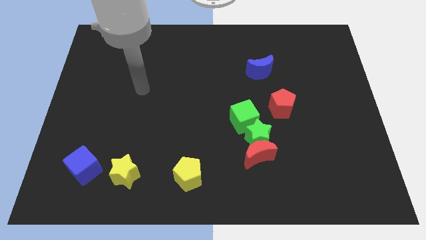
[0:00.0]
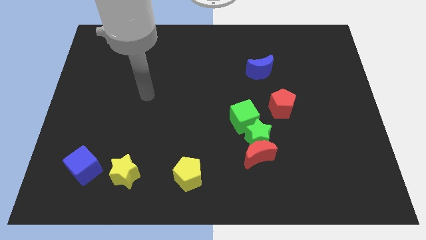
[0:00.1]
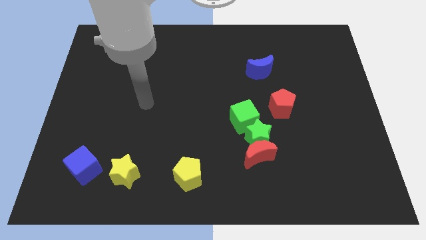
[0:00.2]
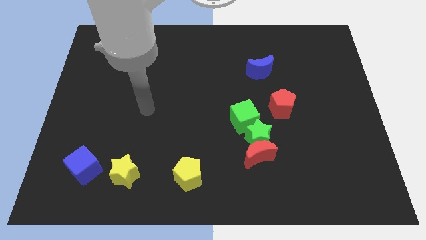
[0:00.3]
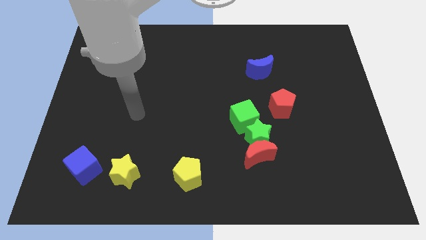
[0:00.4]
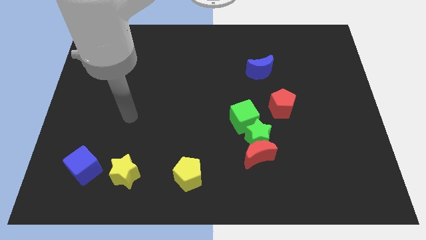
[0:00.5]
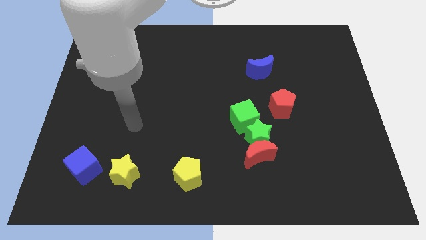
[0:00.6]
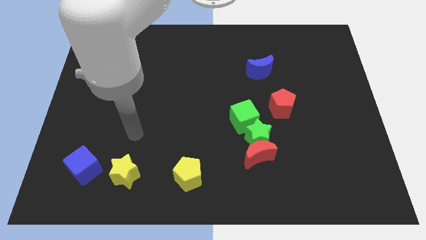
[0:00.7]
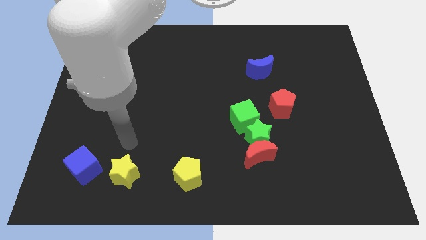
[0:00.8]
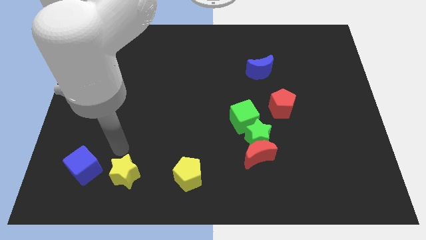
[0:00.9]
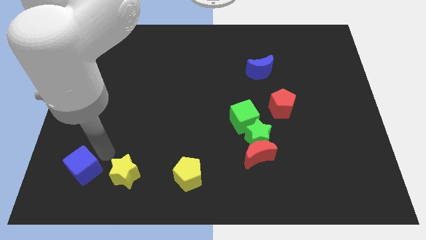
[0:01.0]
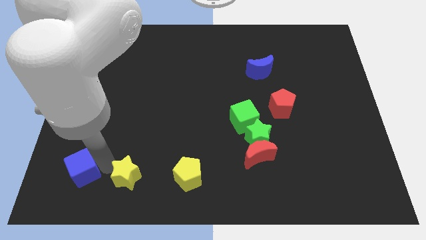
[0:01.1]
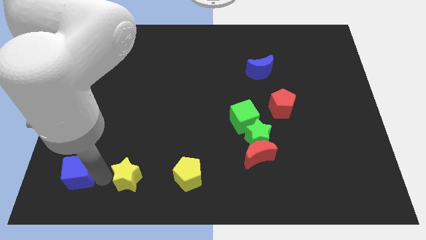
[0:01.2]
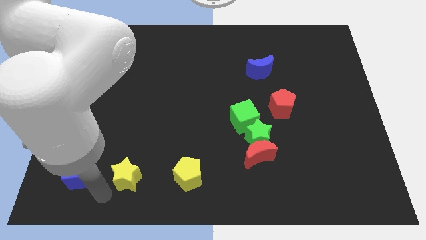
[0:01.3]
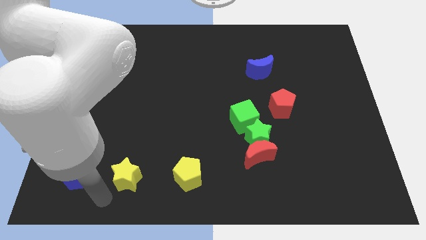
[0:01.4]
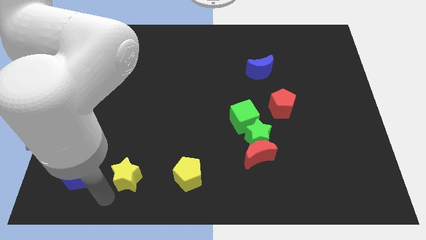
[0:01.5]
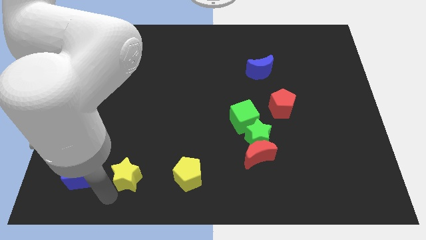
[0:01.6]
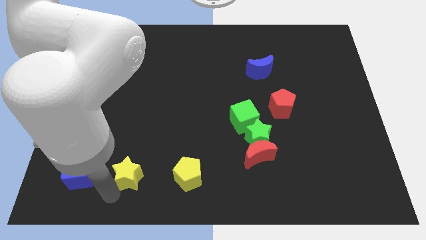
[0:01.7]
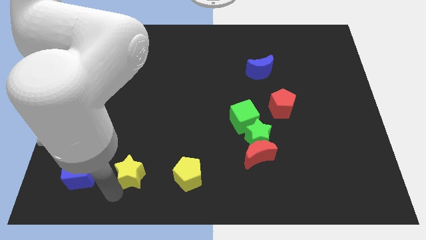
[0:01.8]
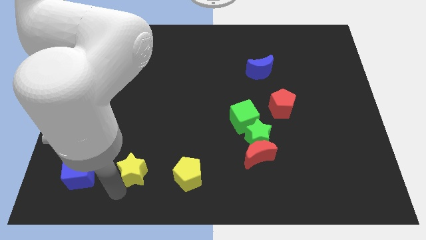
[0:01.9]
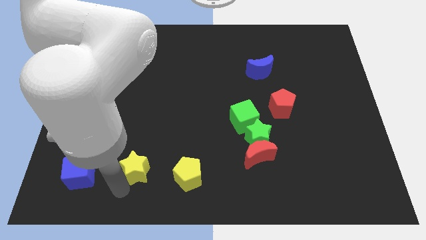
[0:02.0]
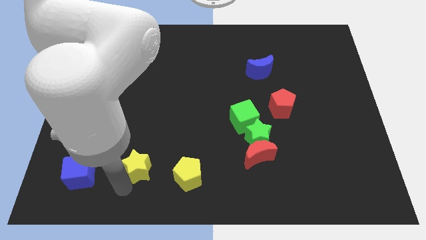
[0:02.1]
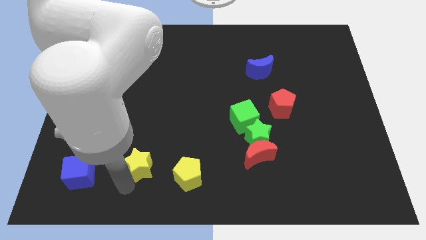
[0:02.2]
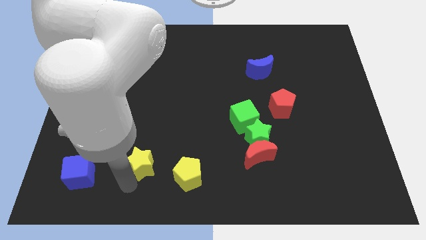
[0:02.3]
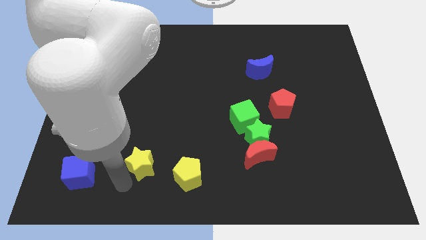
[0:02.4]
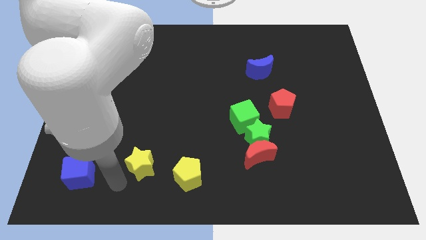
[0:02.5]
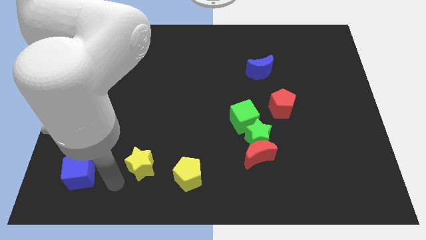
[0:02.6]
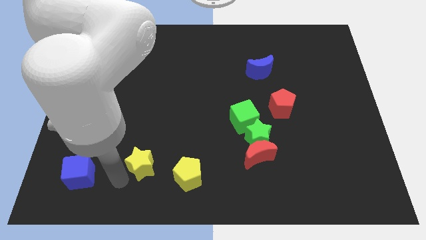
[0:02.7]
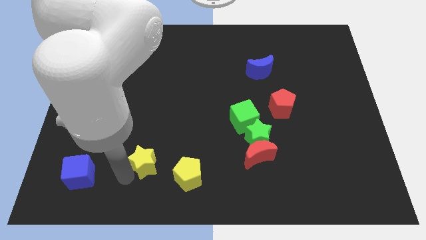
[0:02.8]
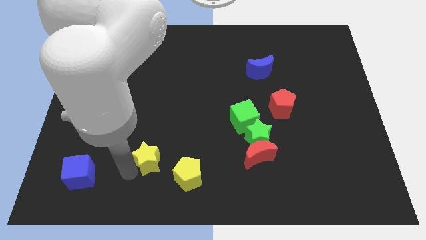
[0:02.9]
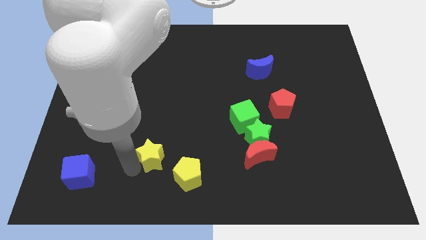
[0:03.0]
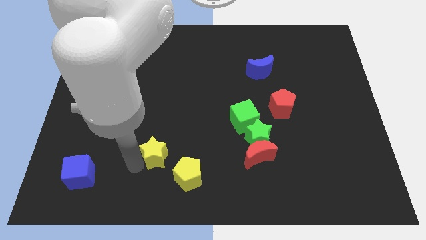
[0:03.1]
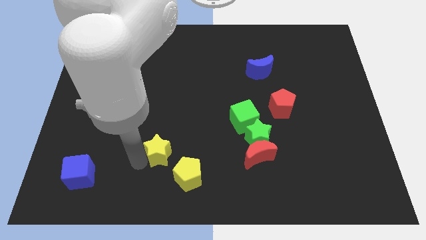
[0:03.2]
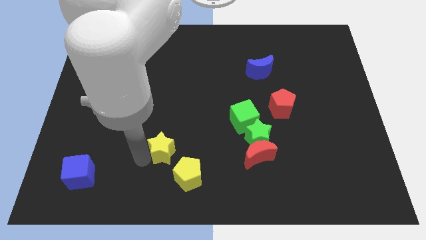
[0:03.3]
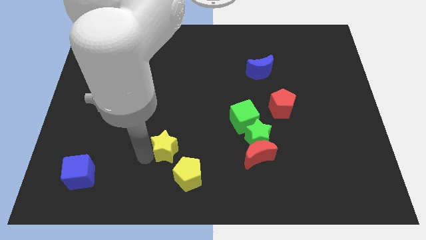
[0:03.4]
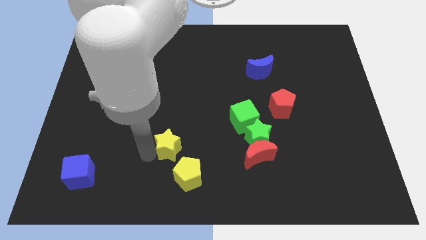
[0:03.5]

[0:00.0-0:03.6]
push the yellow star slightly right

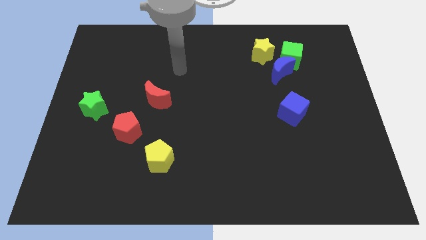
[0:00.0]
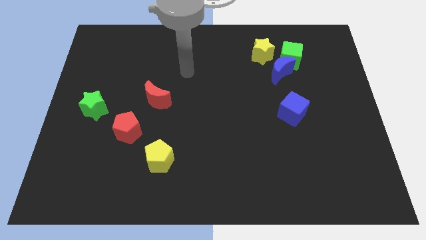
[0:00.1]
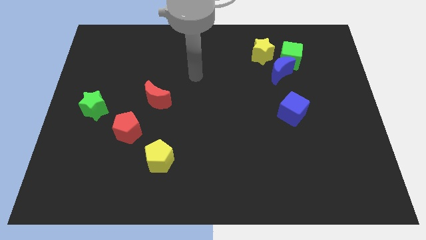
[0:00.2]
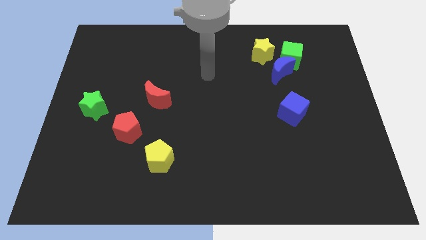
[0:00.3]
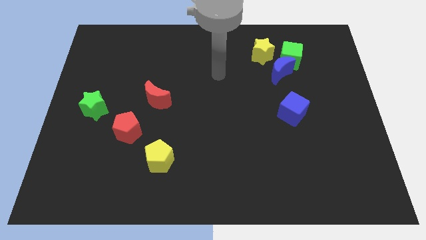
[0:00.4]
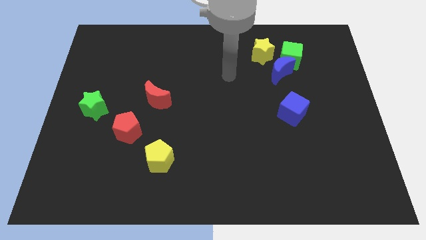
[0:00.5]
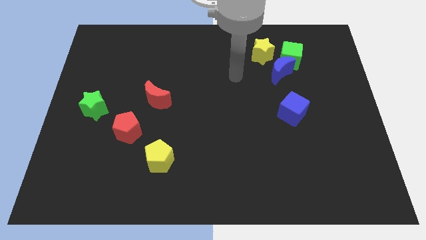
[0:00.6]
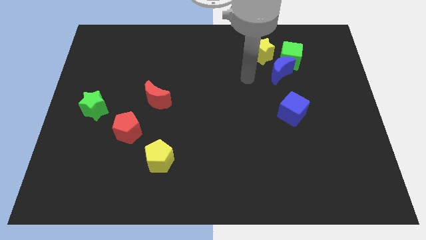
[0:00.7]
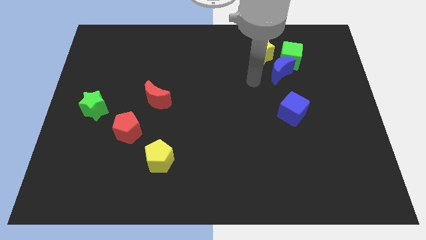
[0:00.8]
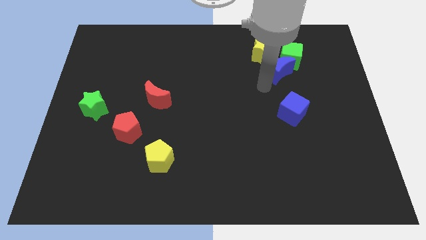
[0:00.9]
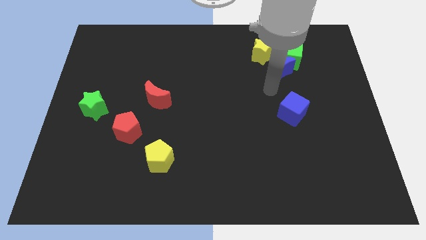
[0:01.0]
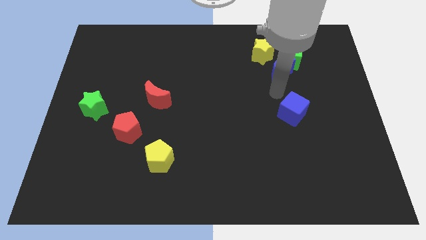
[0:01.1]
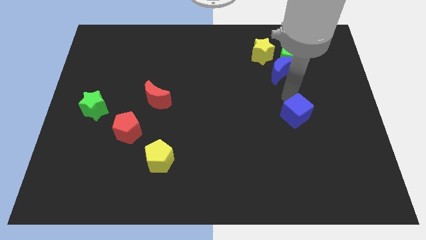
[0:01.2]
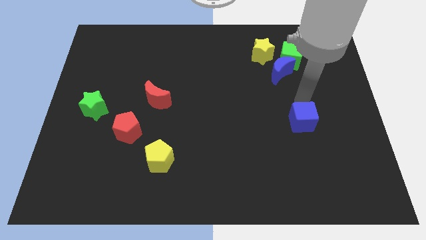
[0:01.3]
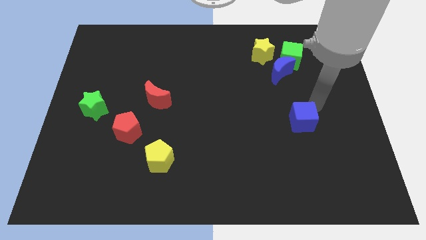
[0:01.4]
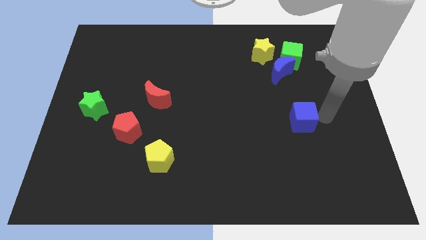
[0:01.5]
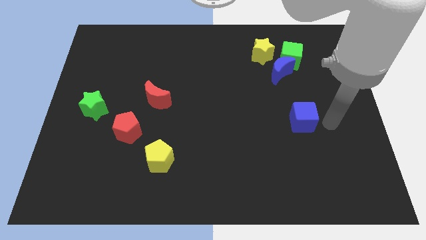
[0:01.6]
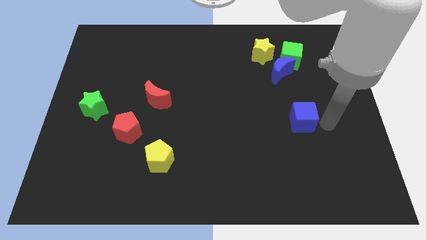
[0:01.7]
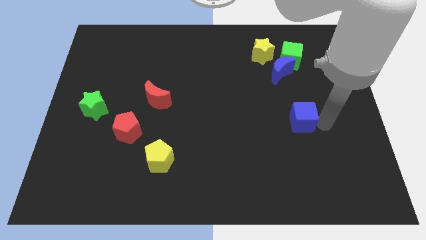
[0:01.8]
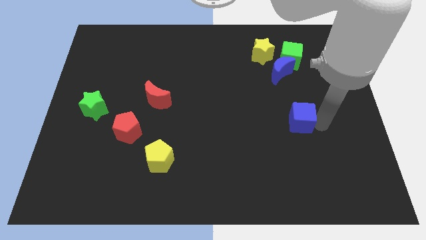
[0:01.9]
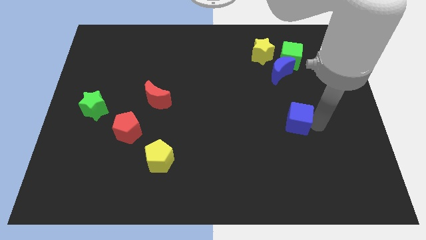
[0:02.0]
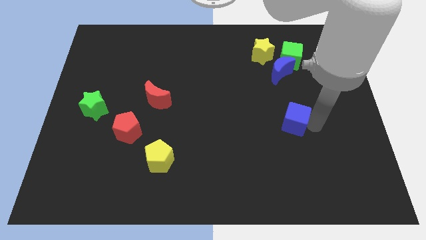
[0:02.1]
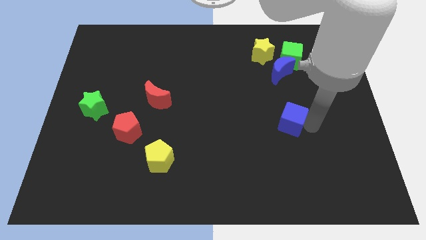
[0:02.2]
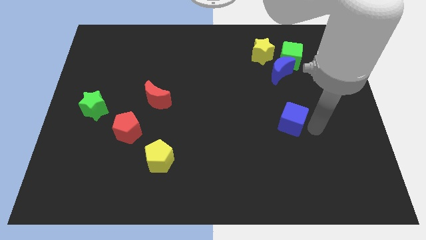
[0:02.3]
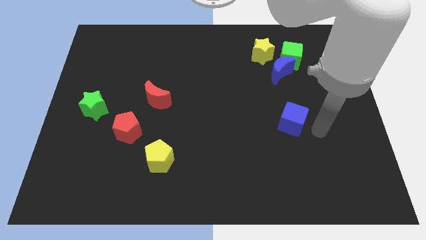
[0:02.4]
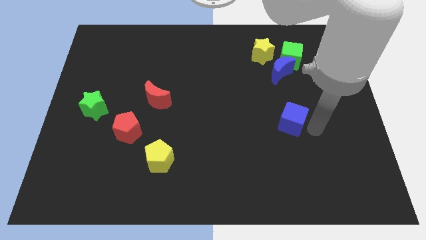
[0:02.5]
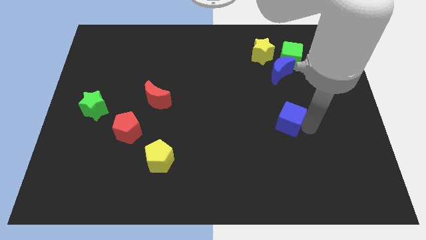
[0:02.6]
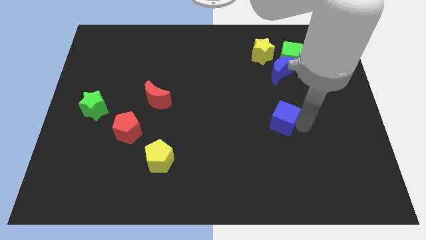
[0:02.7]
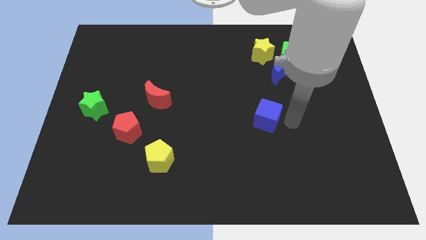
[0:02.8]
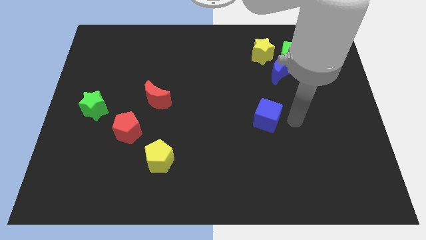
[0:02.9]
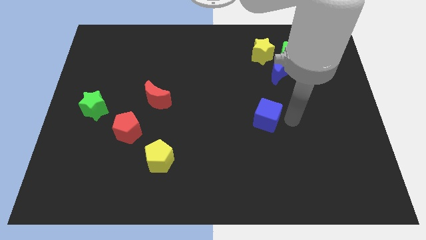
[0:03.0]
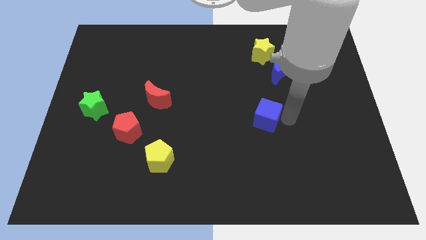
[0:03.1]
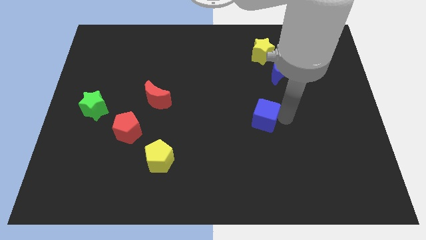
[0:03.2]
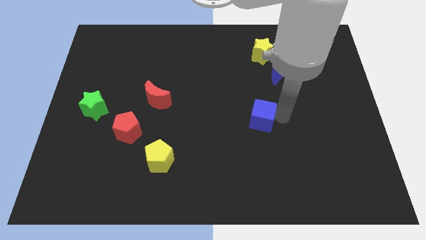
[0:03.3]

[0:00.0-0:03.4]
slide the blue cube left a little

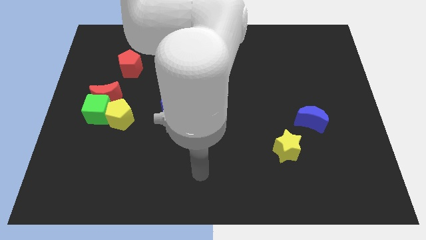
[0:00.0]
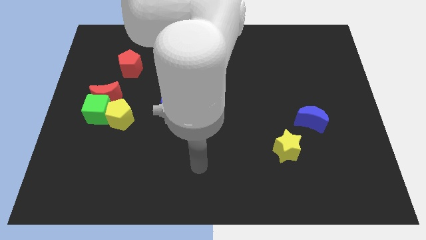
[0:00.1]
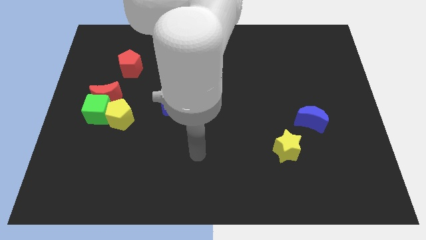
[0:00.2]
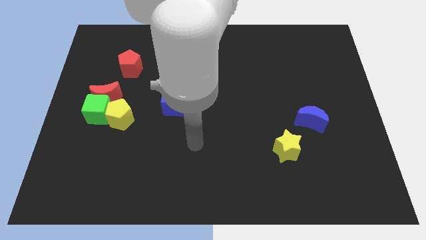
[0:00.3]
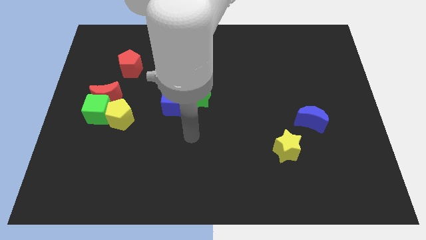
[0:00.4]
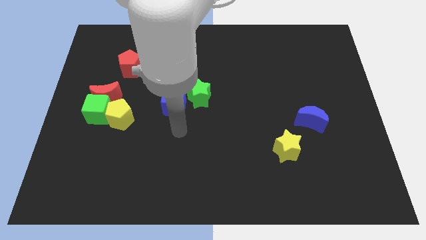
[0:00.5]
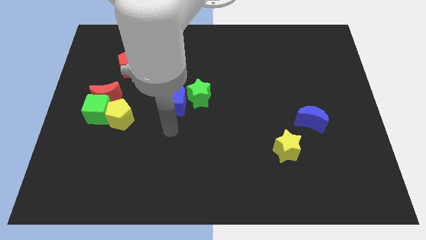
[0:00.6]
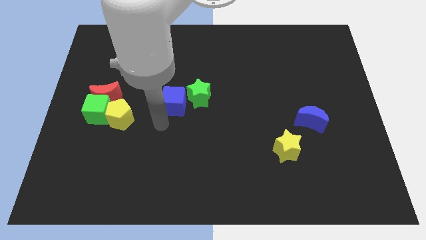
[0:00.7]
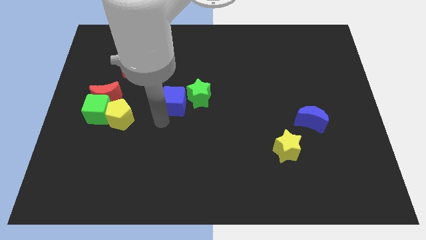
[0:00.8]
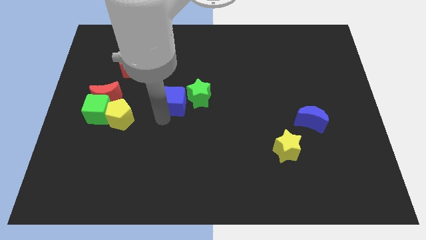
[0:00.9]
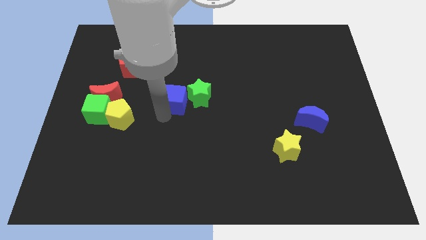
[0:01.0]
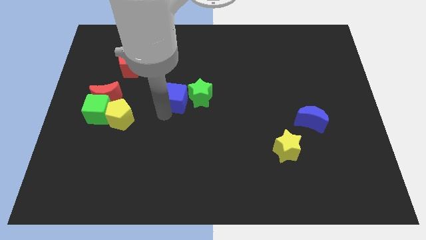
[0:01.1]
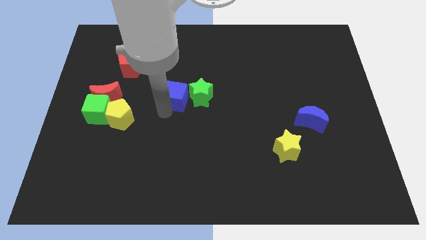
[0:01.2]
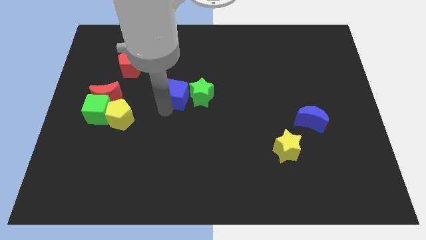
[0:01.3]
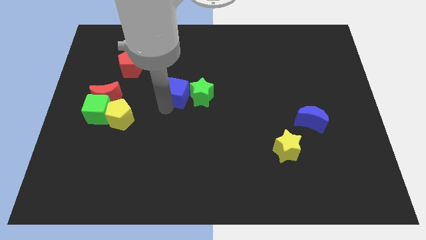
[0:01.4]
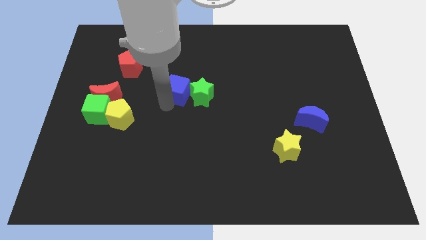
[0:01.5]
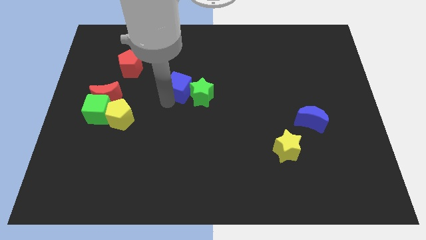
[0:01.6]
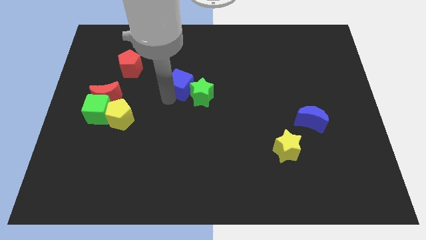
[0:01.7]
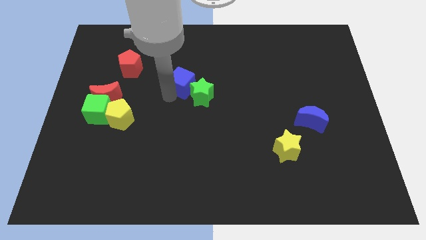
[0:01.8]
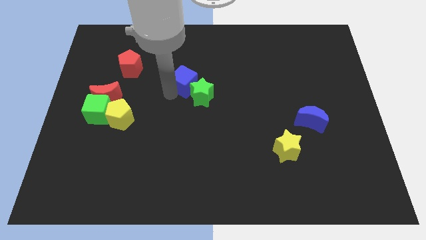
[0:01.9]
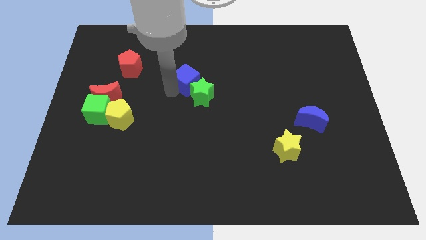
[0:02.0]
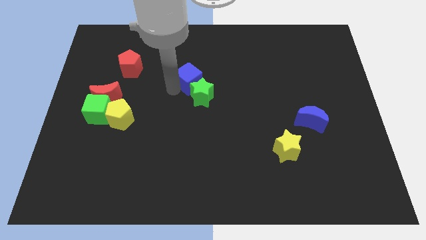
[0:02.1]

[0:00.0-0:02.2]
move the blue cube upwards and to the right a bit
